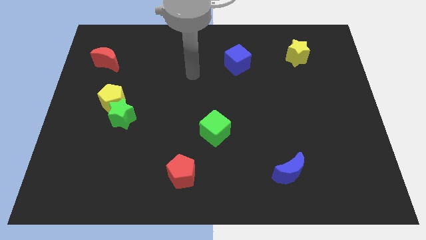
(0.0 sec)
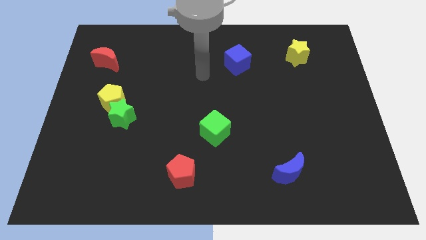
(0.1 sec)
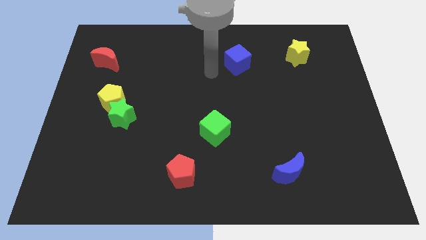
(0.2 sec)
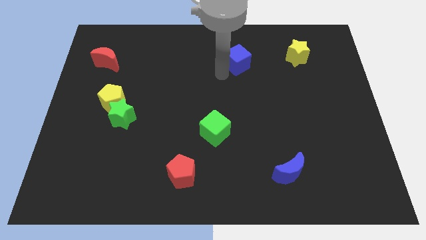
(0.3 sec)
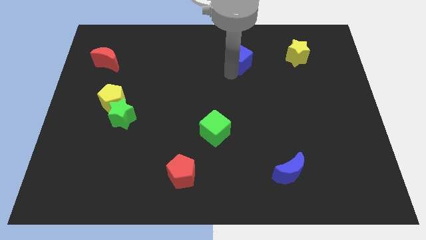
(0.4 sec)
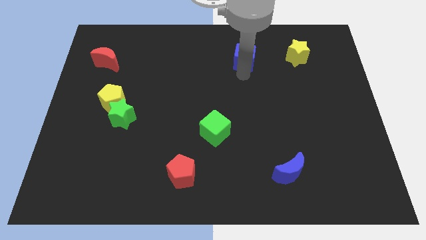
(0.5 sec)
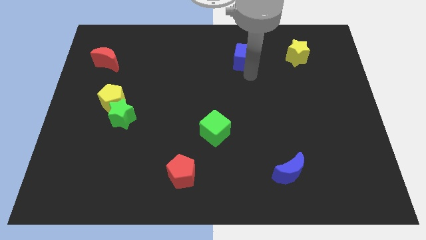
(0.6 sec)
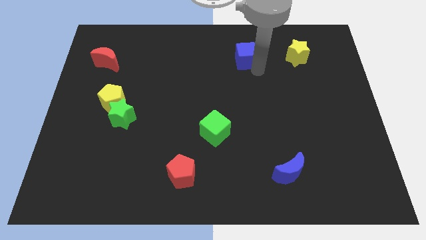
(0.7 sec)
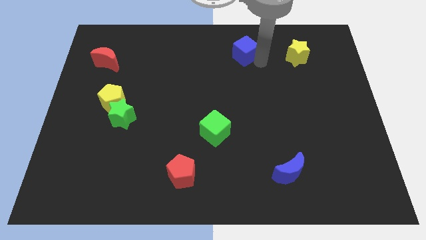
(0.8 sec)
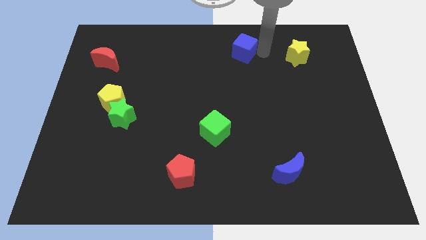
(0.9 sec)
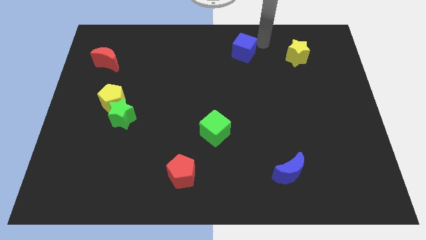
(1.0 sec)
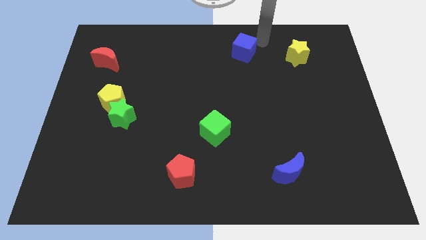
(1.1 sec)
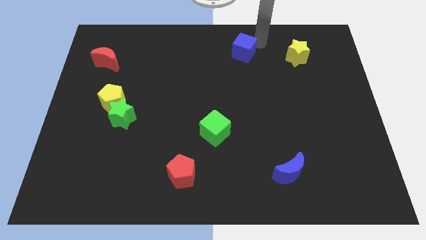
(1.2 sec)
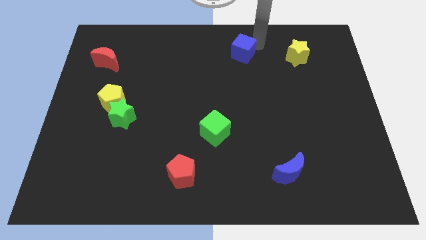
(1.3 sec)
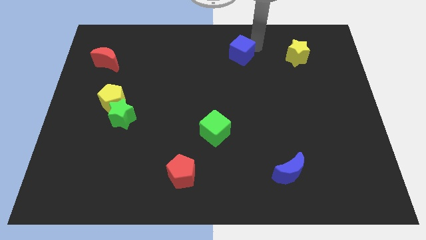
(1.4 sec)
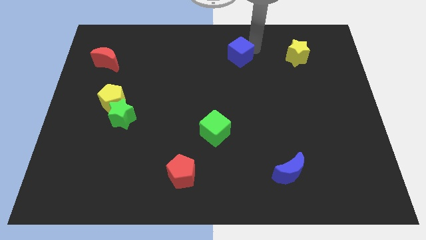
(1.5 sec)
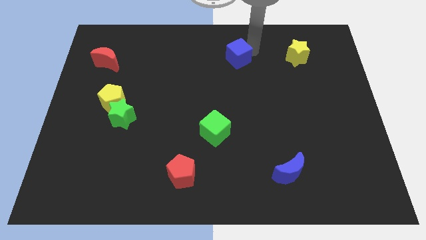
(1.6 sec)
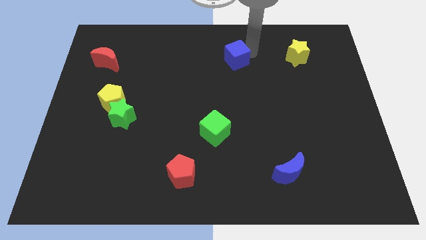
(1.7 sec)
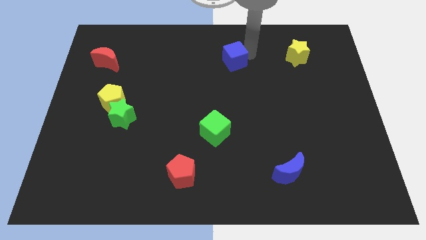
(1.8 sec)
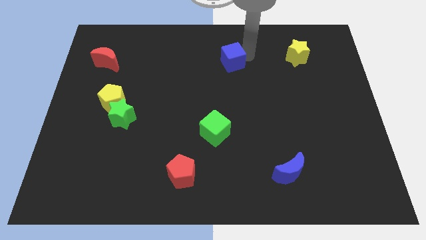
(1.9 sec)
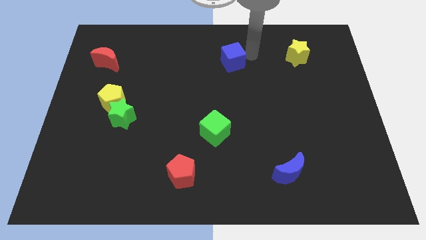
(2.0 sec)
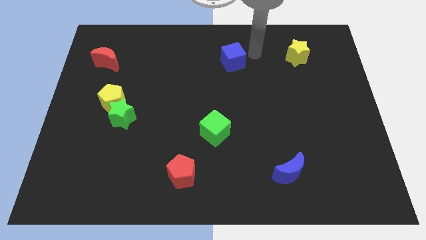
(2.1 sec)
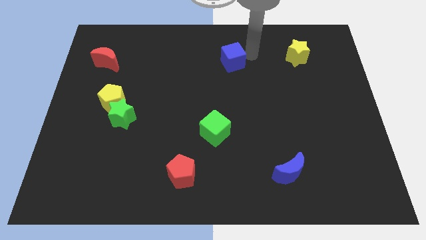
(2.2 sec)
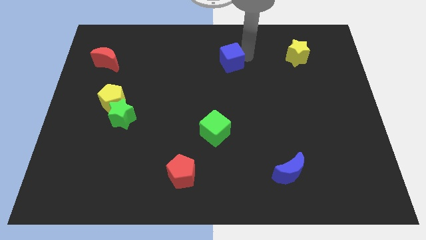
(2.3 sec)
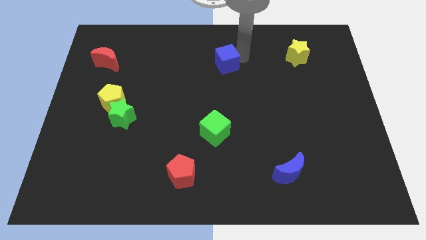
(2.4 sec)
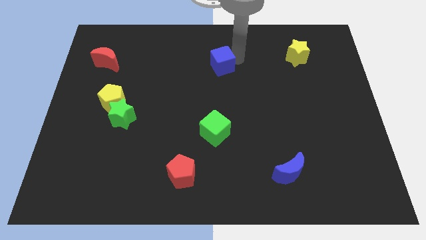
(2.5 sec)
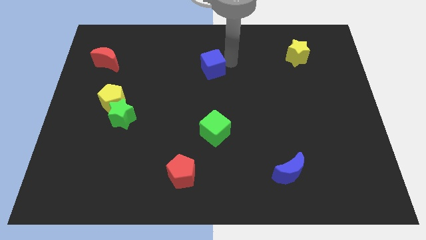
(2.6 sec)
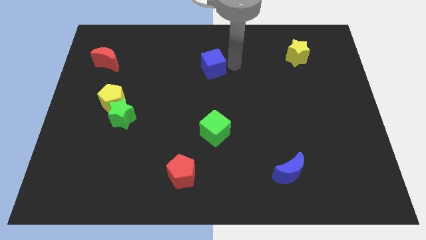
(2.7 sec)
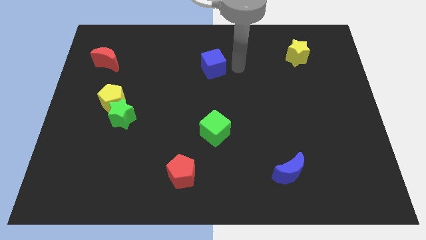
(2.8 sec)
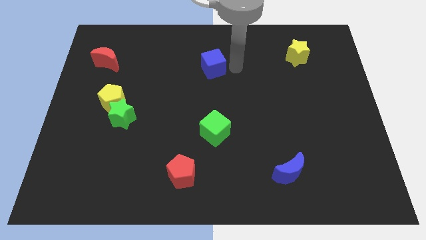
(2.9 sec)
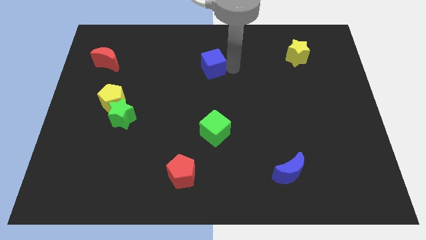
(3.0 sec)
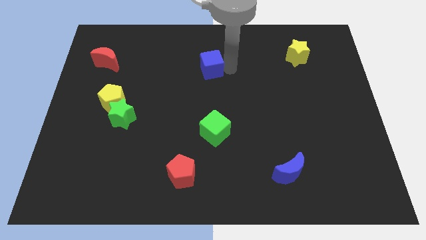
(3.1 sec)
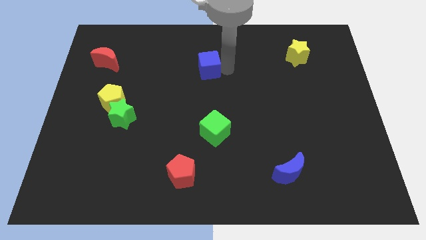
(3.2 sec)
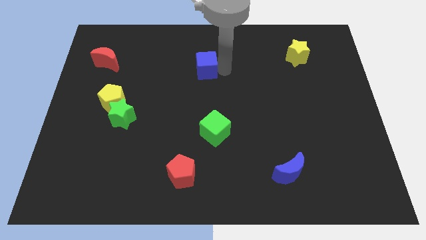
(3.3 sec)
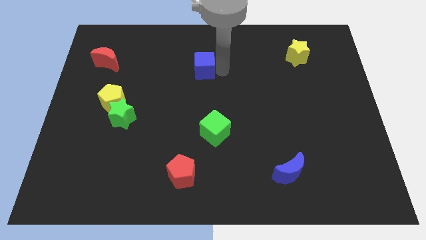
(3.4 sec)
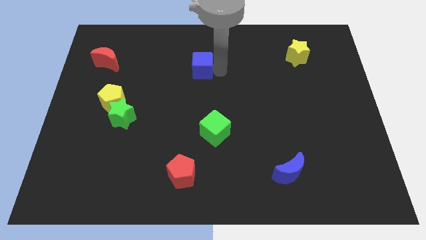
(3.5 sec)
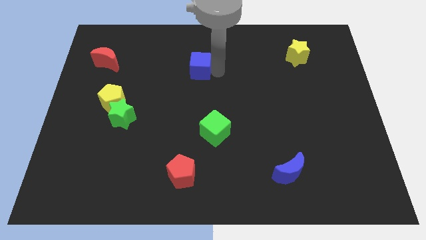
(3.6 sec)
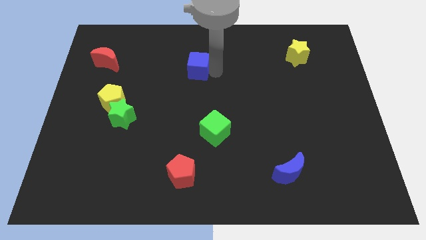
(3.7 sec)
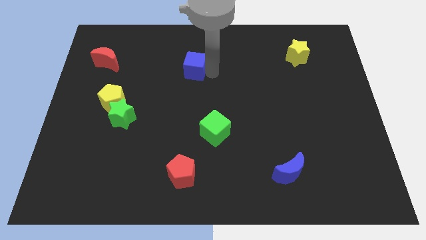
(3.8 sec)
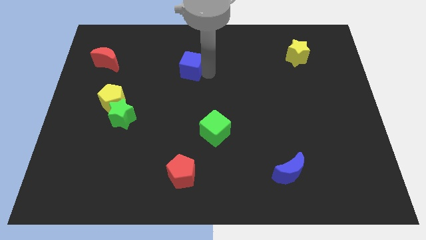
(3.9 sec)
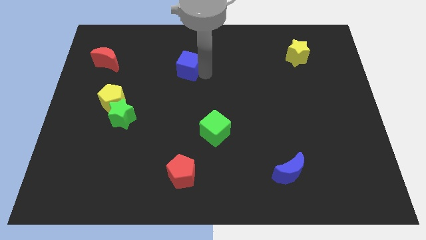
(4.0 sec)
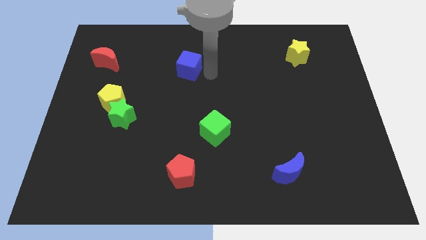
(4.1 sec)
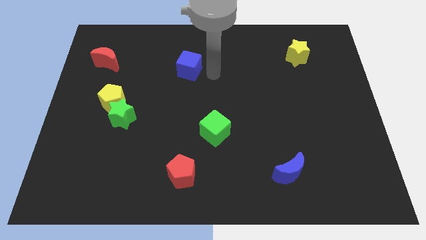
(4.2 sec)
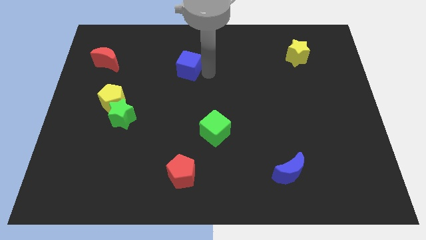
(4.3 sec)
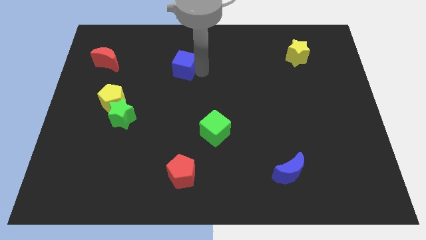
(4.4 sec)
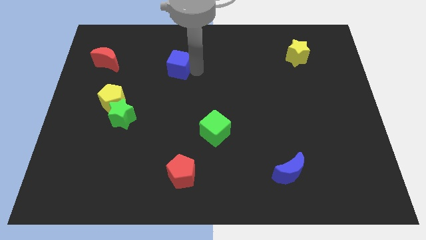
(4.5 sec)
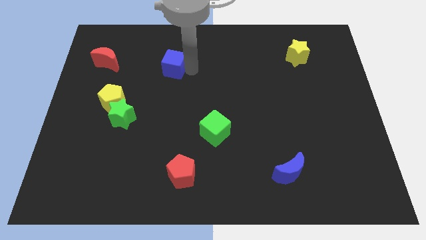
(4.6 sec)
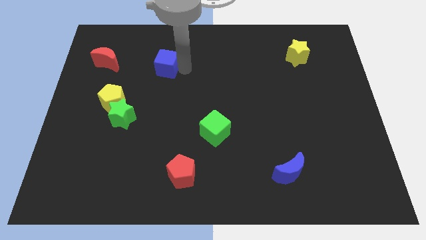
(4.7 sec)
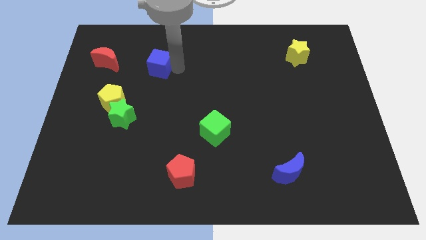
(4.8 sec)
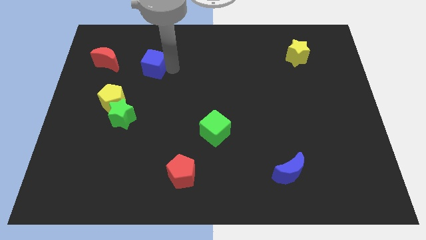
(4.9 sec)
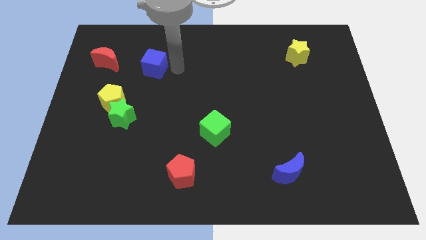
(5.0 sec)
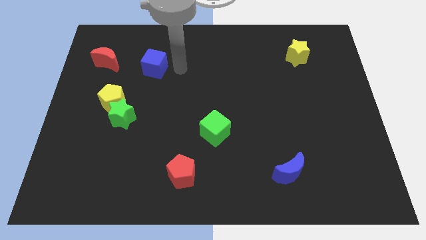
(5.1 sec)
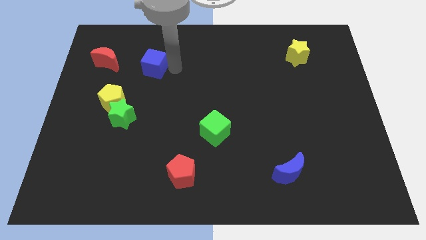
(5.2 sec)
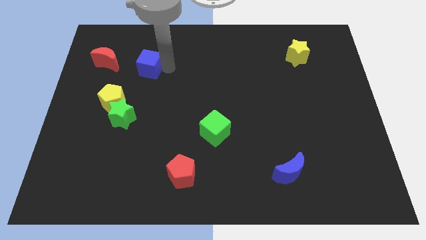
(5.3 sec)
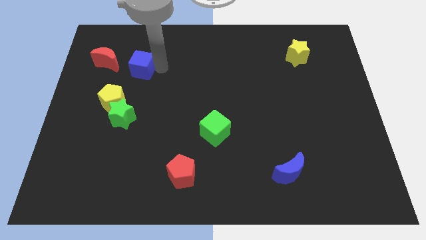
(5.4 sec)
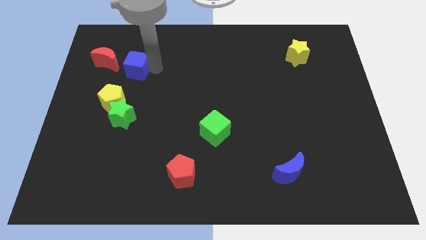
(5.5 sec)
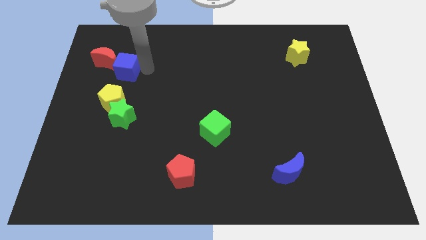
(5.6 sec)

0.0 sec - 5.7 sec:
slide the blue cube towards the red moon

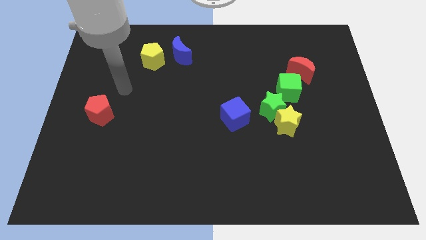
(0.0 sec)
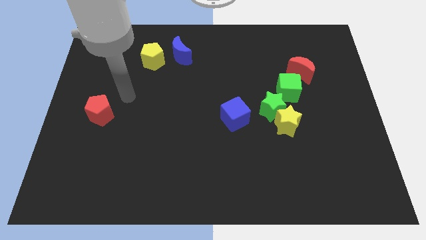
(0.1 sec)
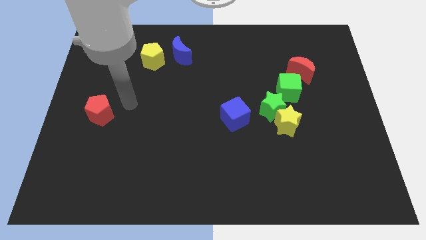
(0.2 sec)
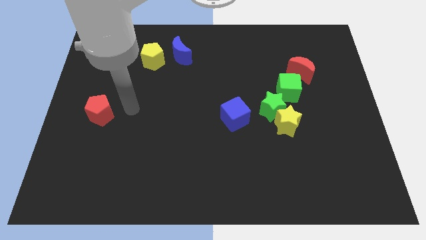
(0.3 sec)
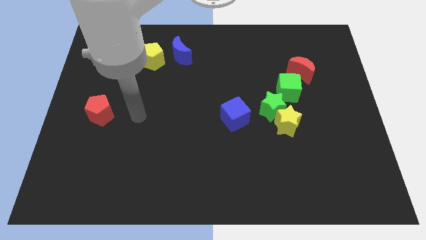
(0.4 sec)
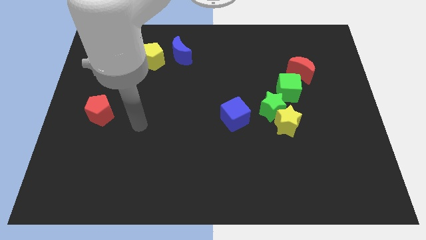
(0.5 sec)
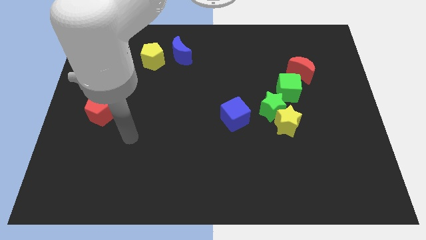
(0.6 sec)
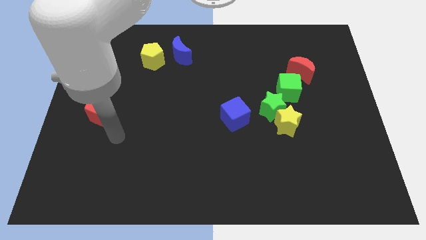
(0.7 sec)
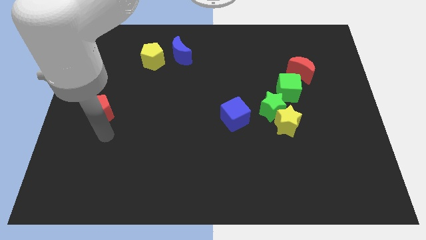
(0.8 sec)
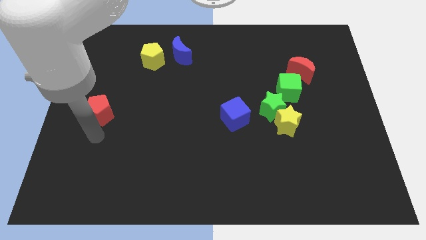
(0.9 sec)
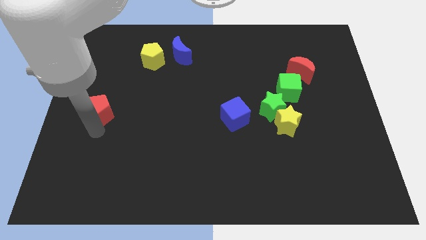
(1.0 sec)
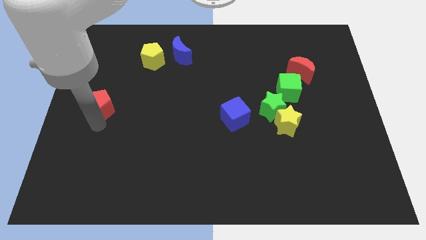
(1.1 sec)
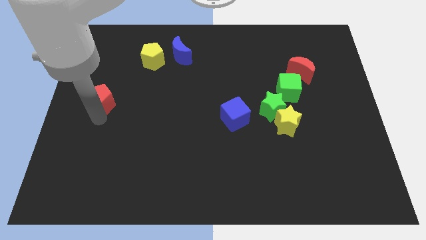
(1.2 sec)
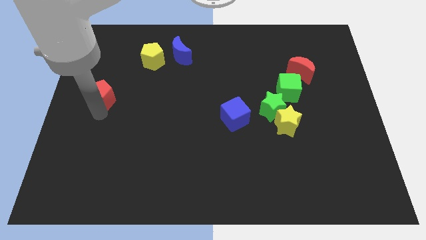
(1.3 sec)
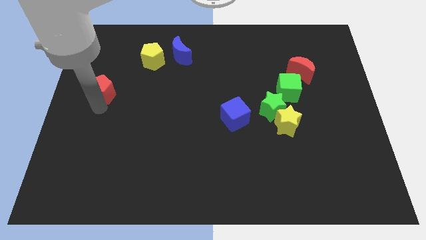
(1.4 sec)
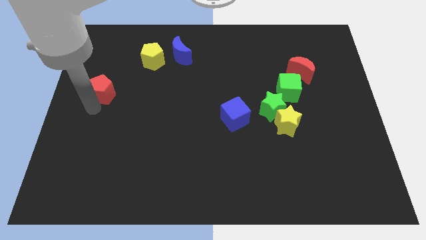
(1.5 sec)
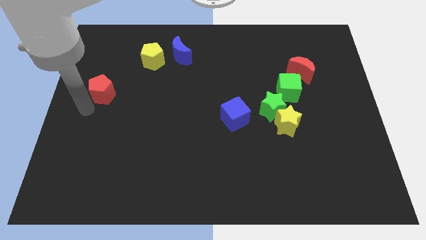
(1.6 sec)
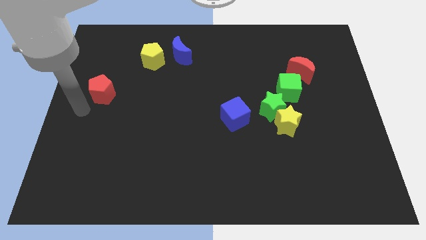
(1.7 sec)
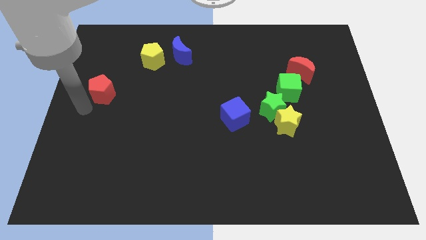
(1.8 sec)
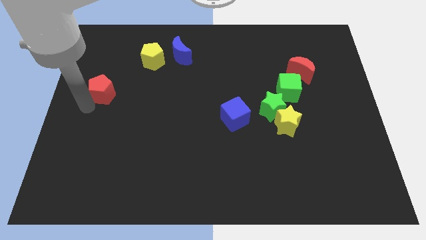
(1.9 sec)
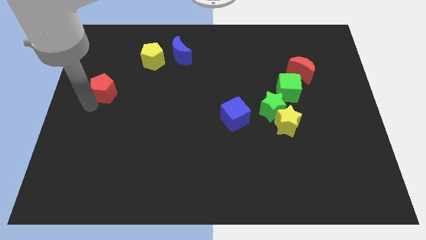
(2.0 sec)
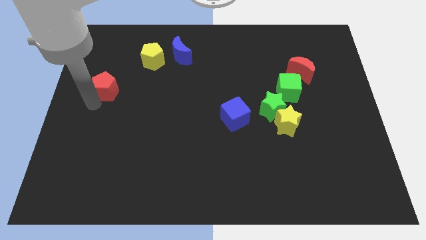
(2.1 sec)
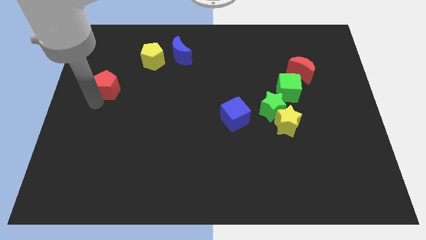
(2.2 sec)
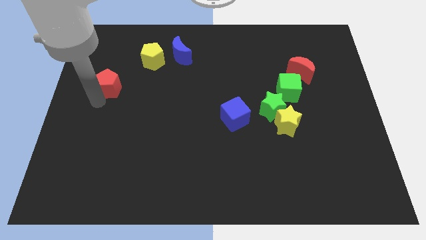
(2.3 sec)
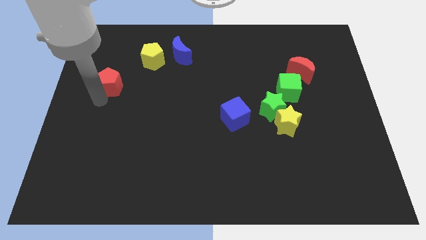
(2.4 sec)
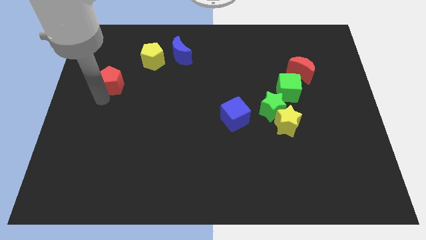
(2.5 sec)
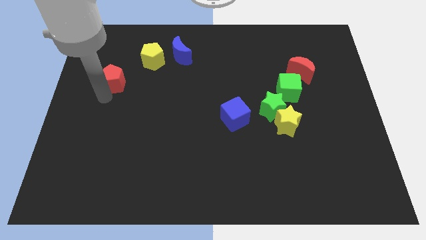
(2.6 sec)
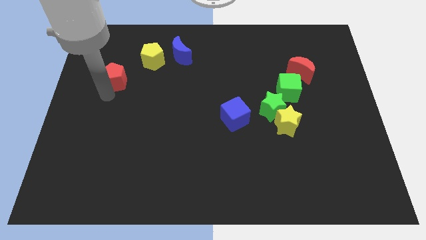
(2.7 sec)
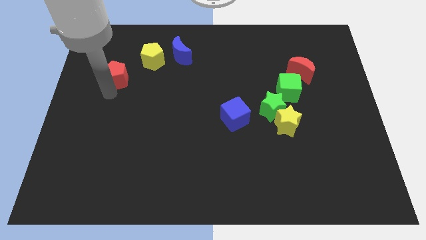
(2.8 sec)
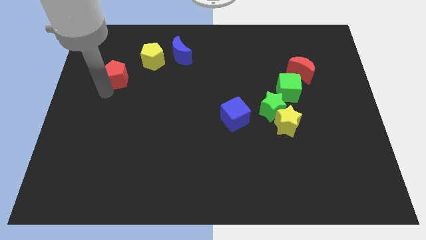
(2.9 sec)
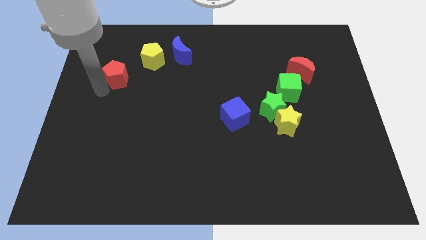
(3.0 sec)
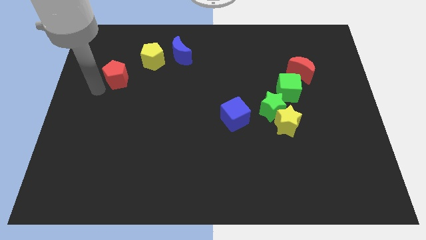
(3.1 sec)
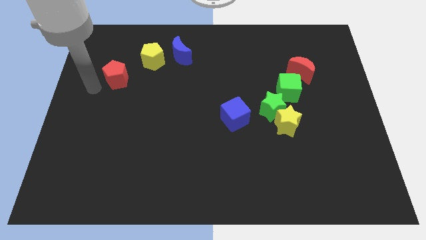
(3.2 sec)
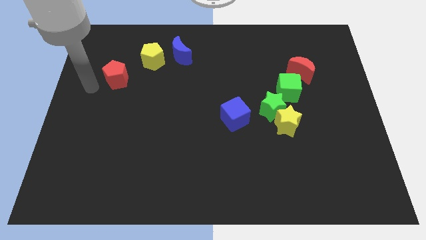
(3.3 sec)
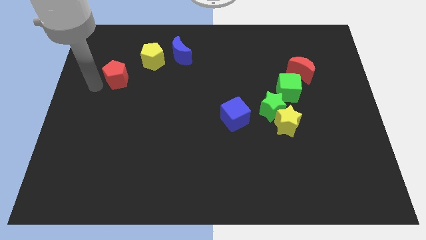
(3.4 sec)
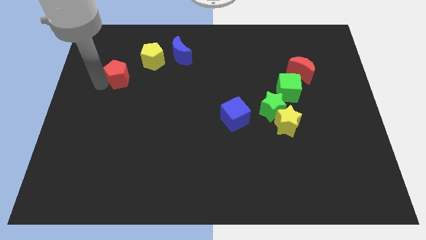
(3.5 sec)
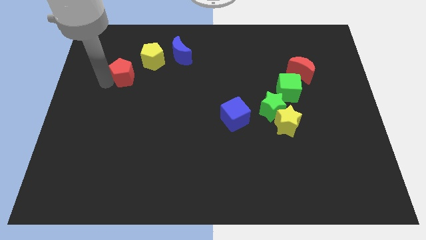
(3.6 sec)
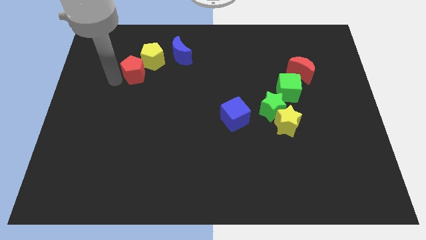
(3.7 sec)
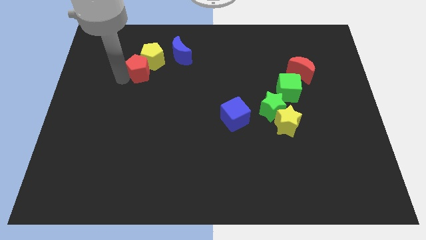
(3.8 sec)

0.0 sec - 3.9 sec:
push the red pentagon close to the yellow pentagon
